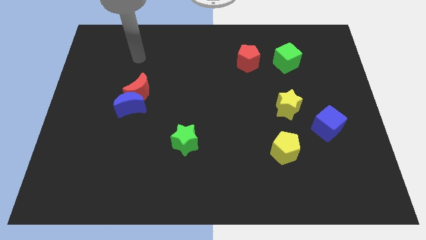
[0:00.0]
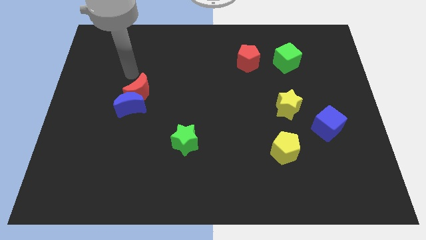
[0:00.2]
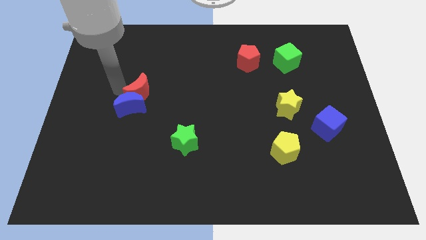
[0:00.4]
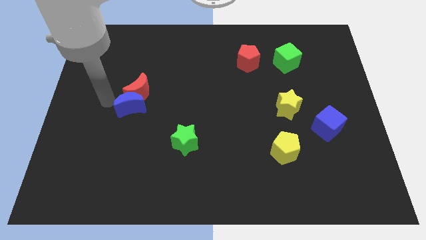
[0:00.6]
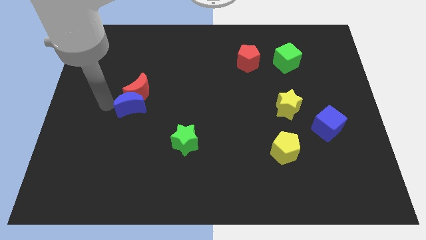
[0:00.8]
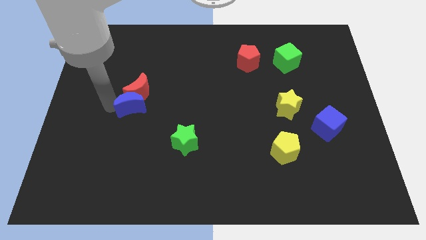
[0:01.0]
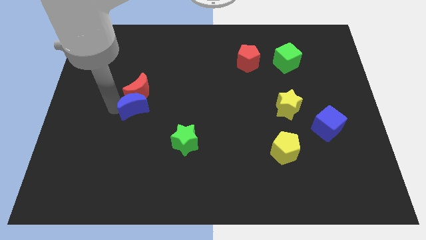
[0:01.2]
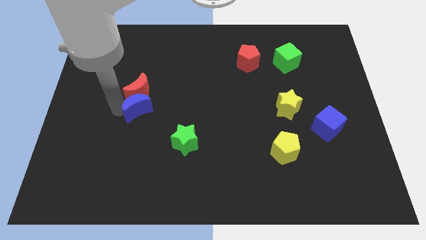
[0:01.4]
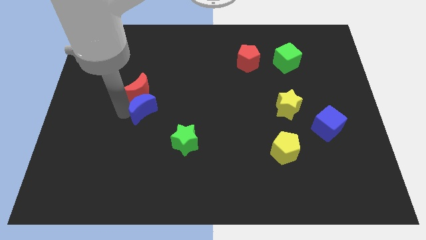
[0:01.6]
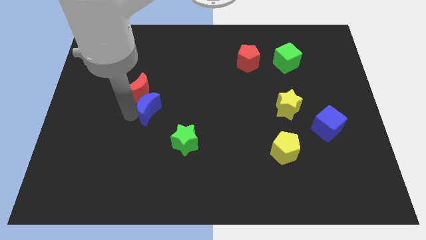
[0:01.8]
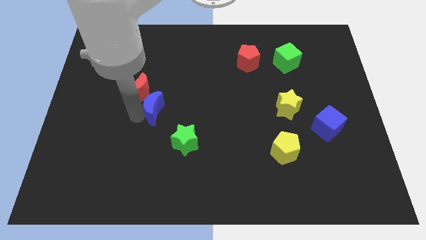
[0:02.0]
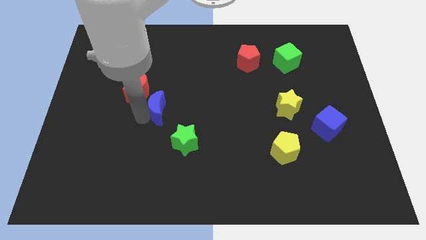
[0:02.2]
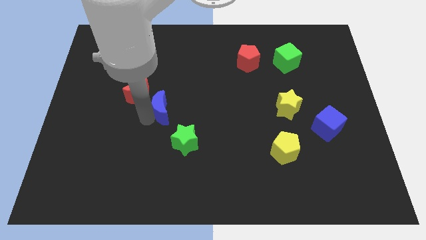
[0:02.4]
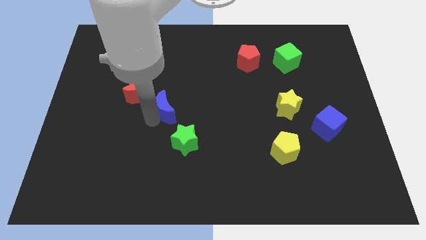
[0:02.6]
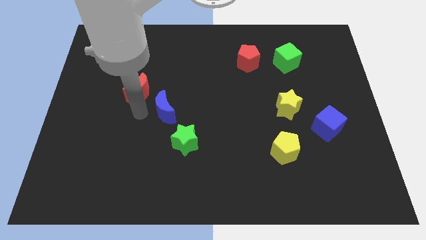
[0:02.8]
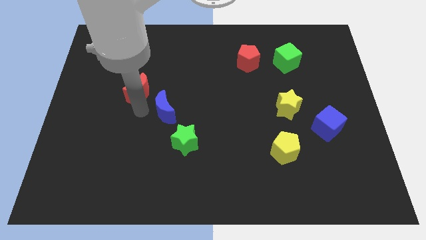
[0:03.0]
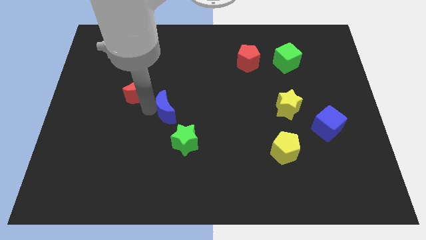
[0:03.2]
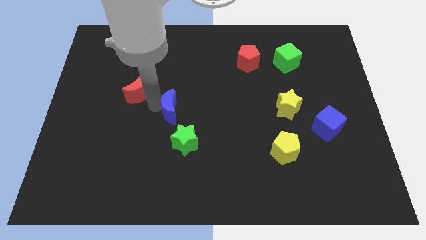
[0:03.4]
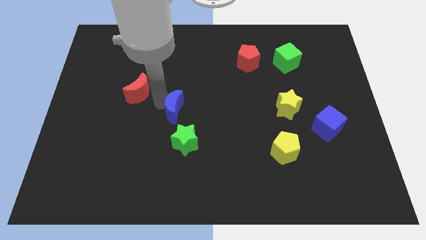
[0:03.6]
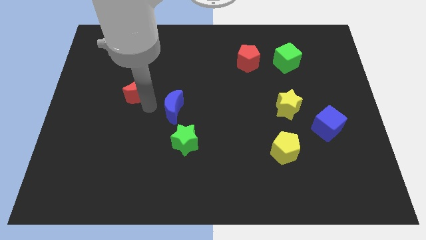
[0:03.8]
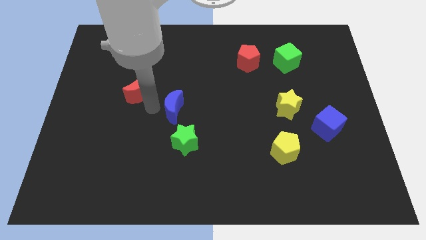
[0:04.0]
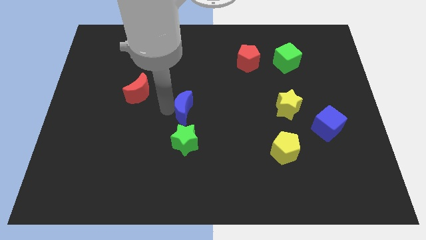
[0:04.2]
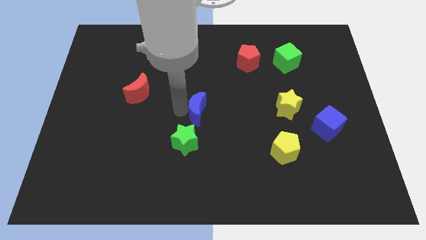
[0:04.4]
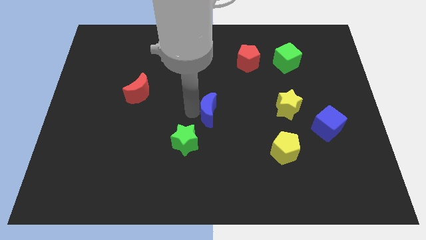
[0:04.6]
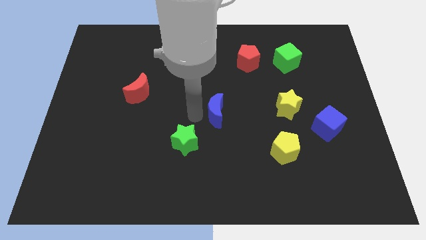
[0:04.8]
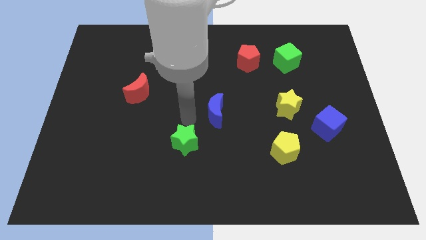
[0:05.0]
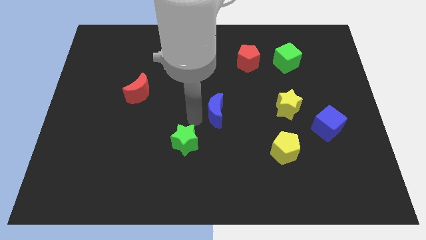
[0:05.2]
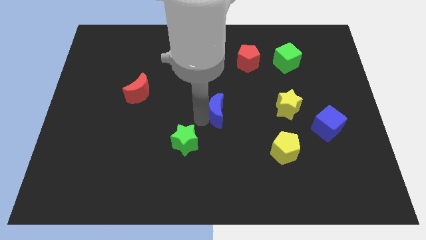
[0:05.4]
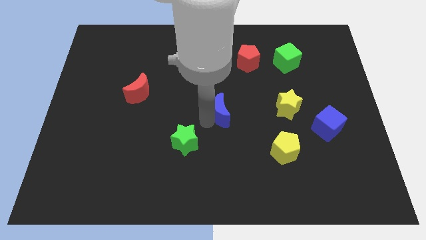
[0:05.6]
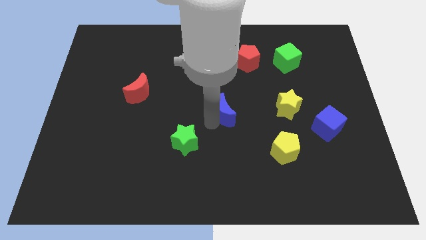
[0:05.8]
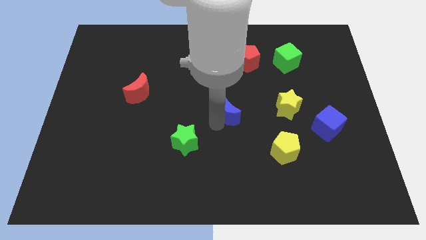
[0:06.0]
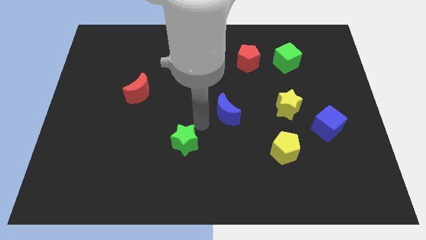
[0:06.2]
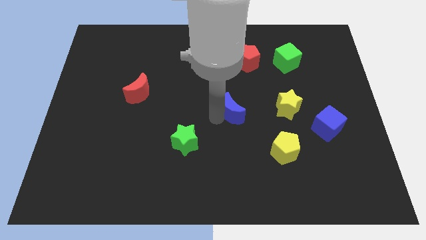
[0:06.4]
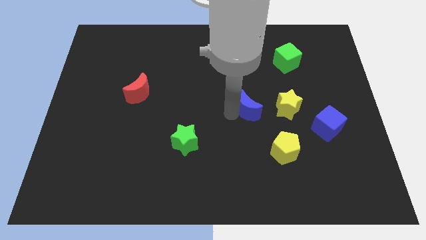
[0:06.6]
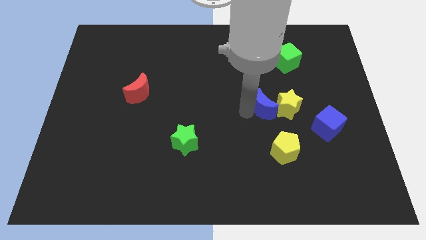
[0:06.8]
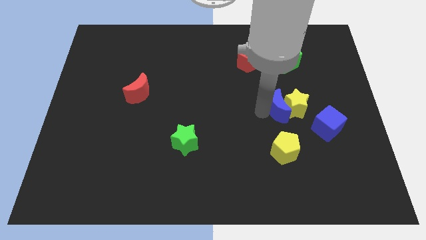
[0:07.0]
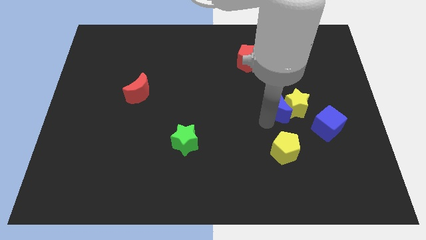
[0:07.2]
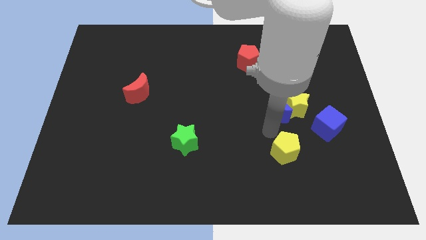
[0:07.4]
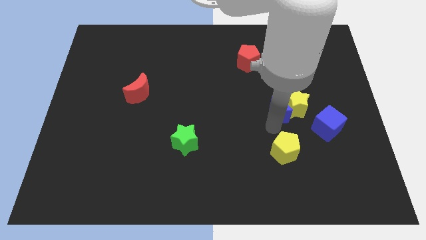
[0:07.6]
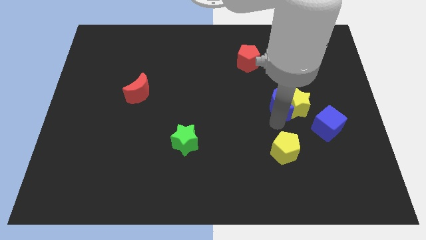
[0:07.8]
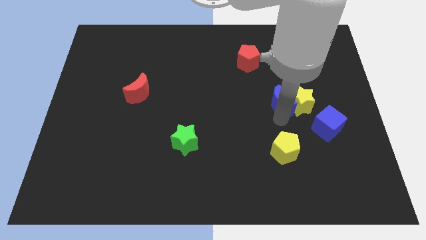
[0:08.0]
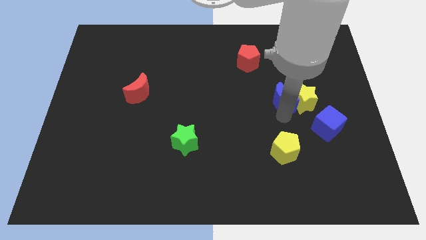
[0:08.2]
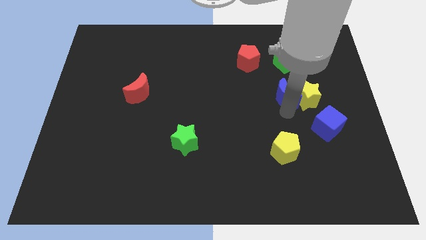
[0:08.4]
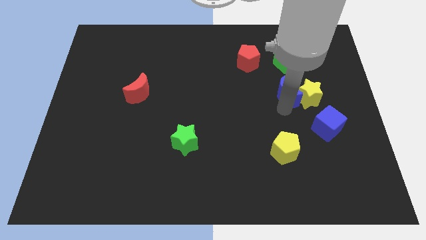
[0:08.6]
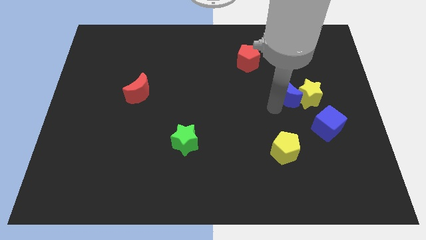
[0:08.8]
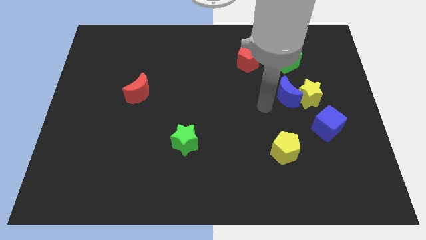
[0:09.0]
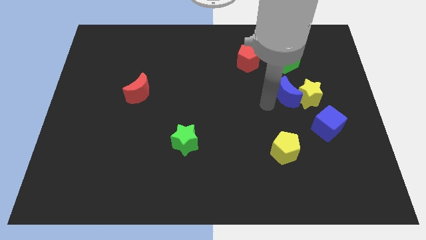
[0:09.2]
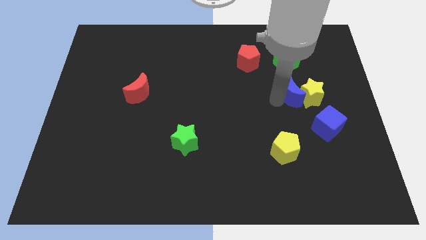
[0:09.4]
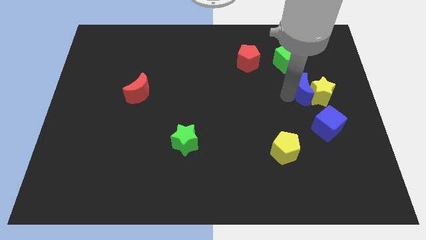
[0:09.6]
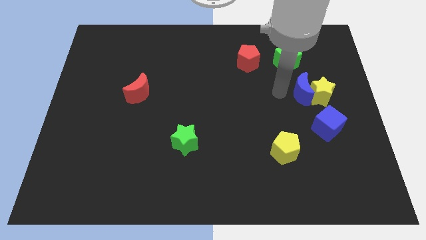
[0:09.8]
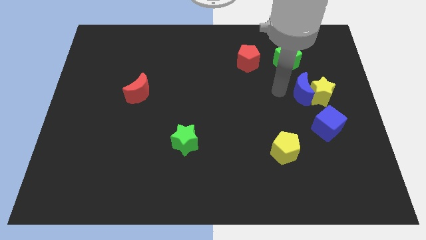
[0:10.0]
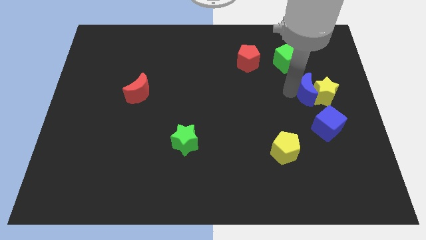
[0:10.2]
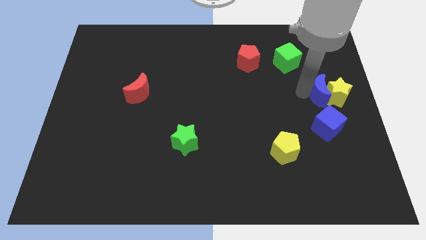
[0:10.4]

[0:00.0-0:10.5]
slide the blue moon to the center right
